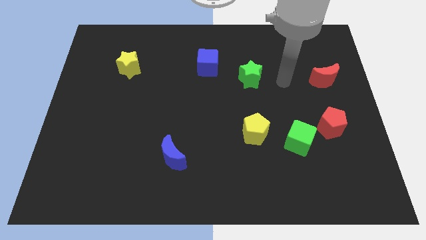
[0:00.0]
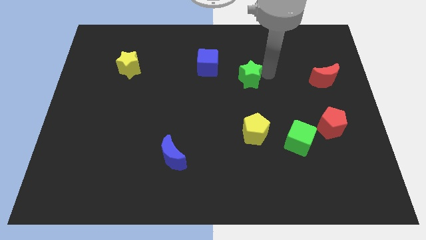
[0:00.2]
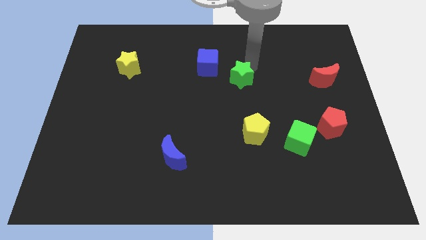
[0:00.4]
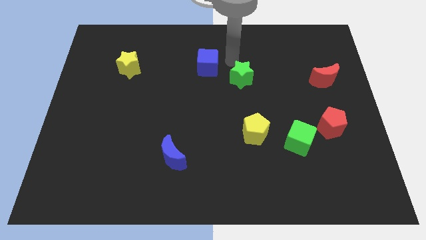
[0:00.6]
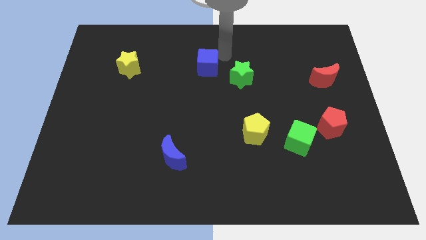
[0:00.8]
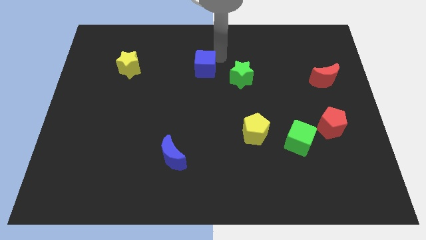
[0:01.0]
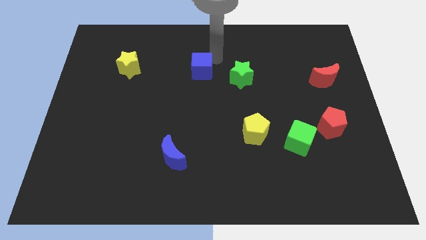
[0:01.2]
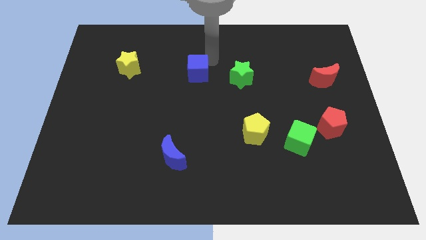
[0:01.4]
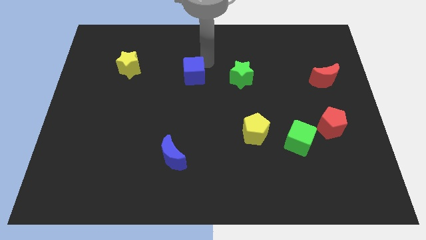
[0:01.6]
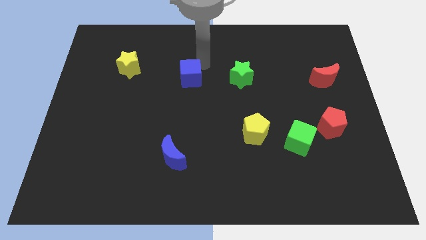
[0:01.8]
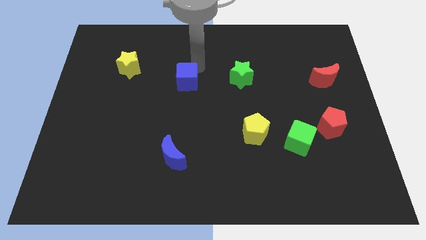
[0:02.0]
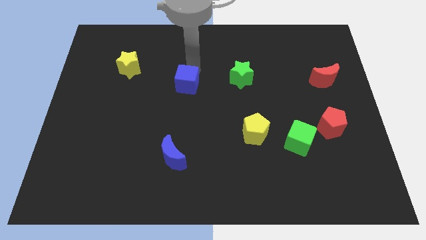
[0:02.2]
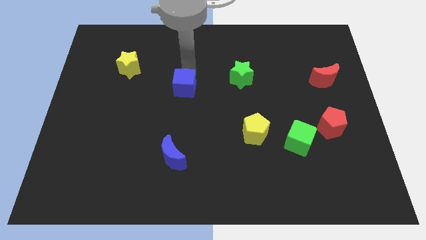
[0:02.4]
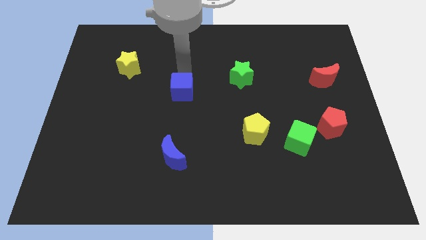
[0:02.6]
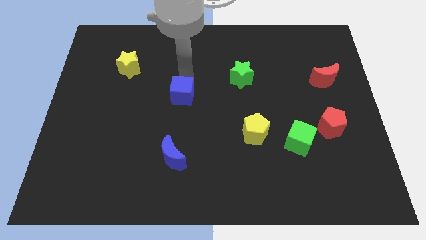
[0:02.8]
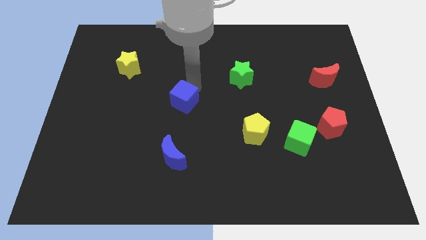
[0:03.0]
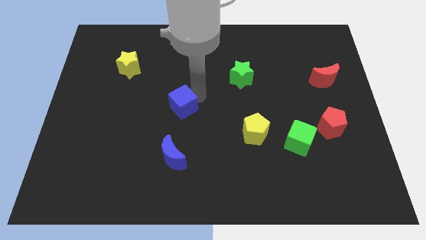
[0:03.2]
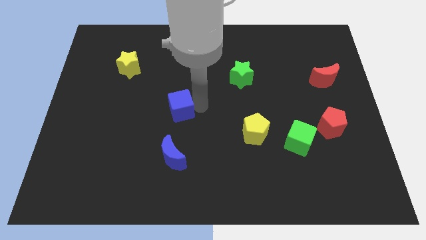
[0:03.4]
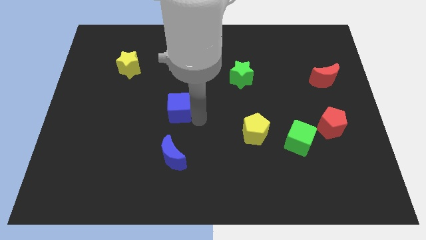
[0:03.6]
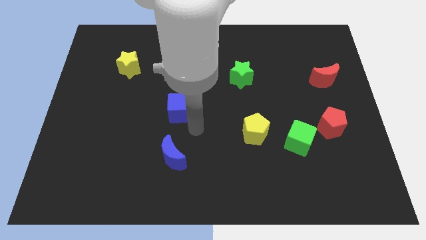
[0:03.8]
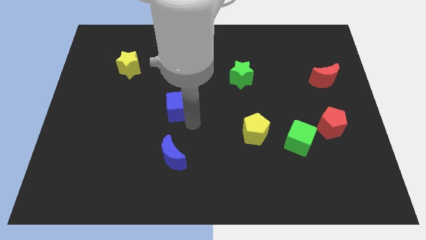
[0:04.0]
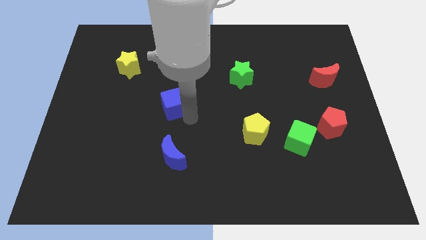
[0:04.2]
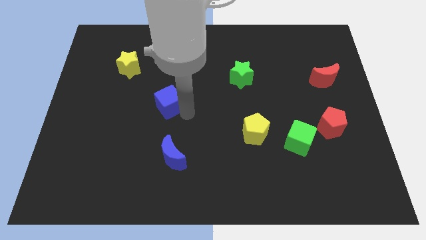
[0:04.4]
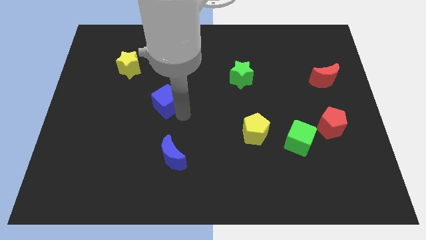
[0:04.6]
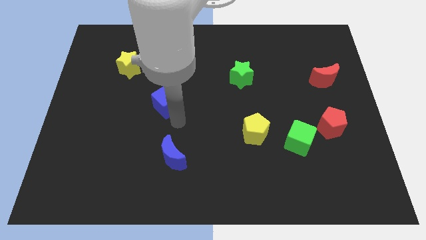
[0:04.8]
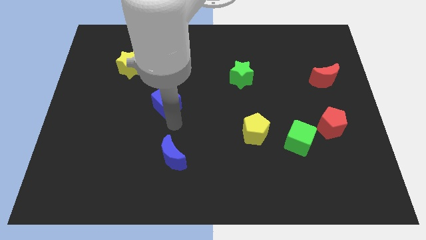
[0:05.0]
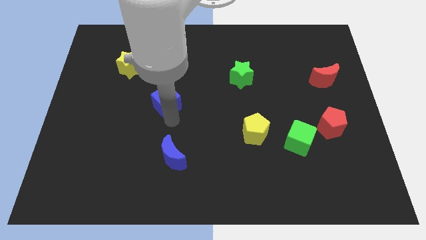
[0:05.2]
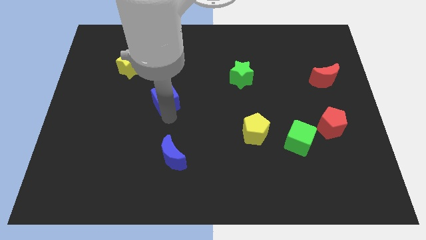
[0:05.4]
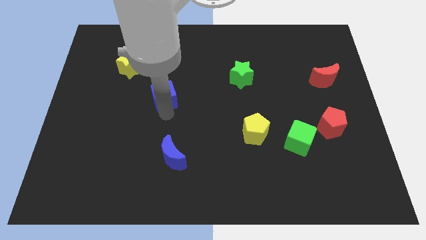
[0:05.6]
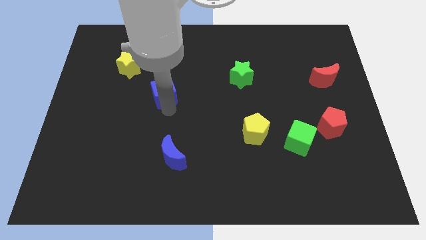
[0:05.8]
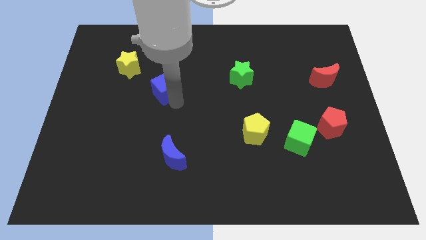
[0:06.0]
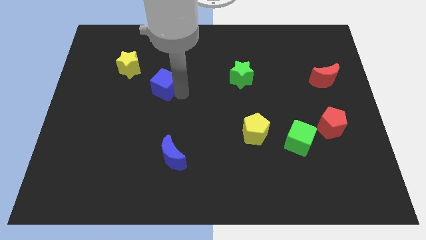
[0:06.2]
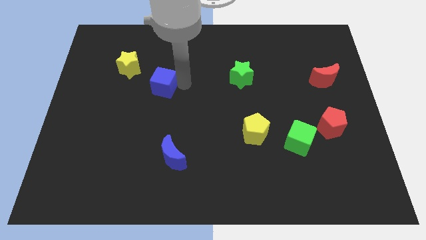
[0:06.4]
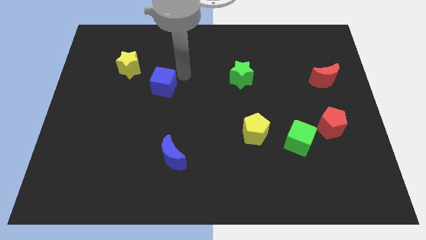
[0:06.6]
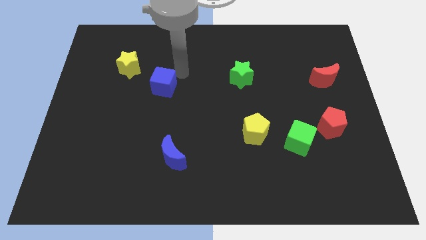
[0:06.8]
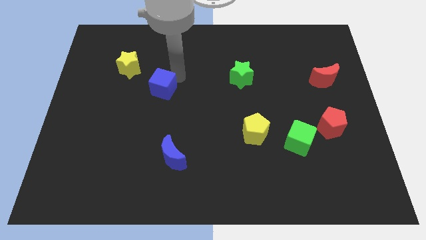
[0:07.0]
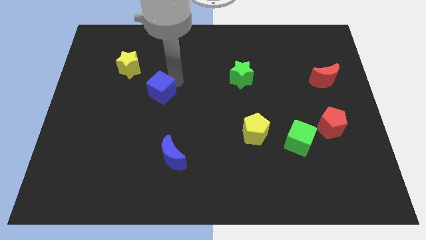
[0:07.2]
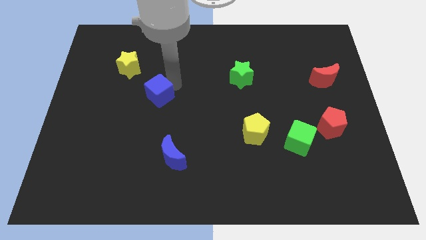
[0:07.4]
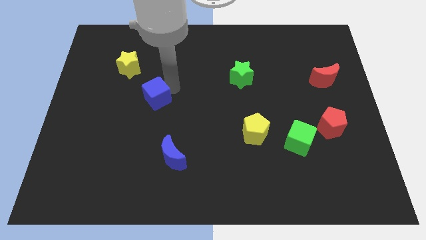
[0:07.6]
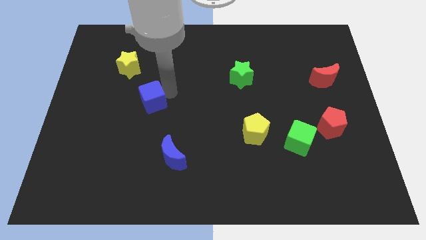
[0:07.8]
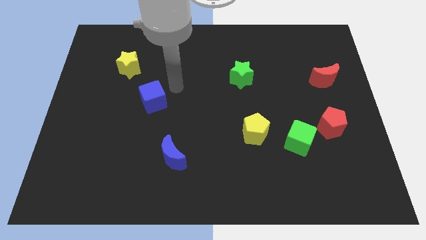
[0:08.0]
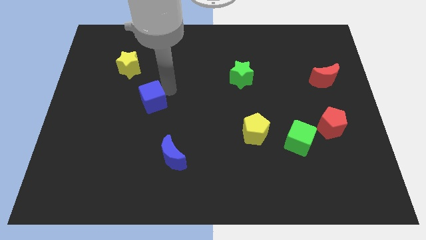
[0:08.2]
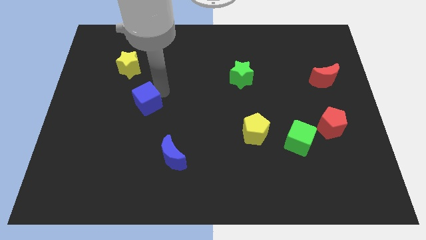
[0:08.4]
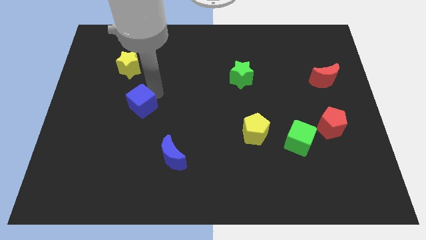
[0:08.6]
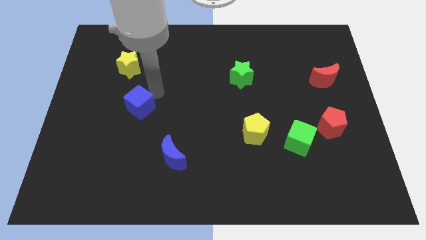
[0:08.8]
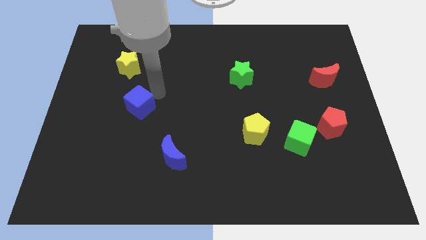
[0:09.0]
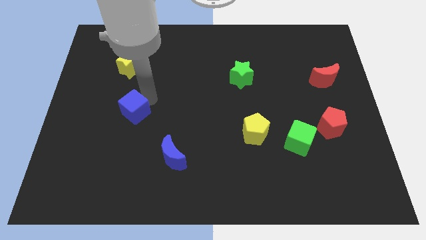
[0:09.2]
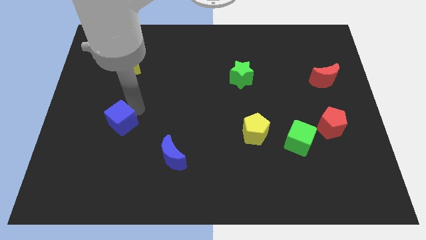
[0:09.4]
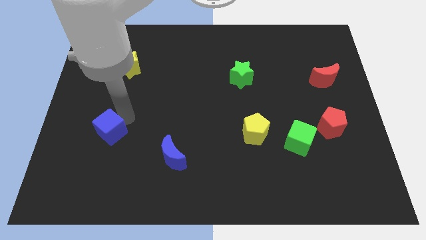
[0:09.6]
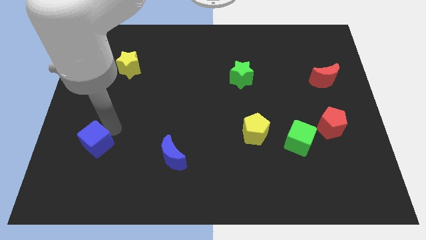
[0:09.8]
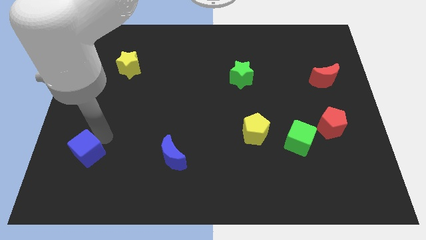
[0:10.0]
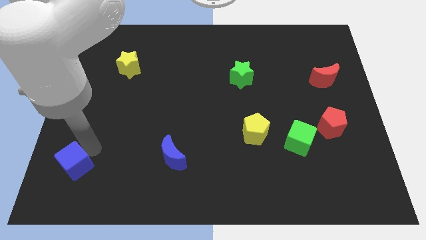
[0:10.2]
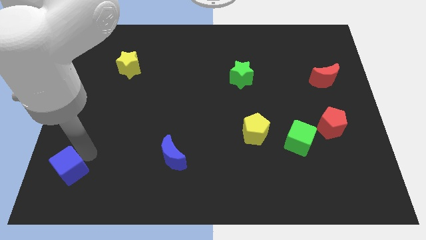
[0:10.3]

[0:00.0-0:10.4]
push the blue cube to the bottom left

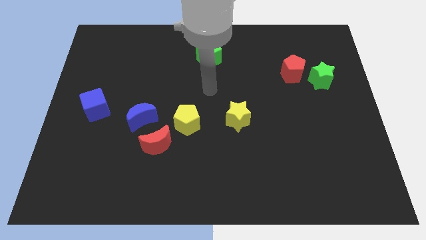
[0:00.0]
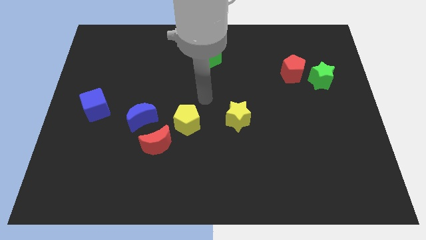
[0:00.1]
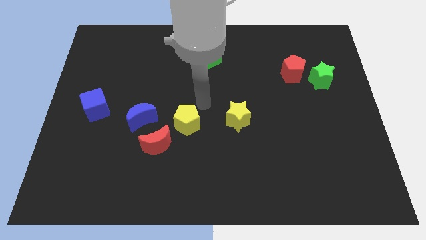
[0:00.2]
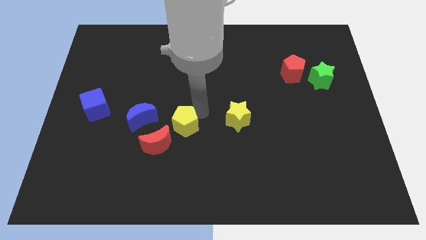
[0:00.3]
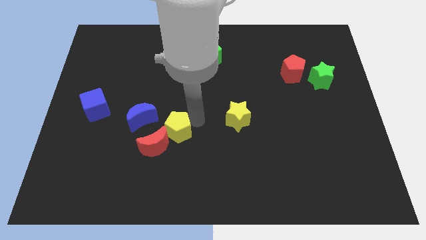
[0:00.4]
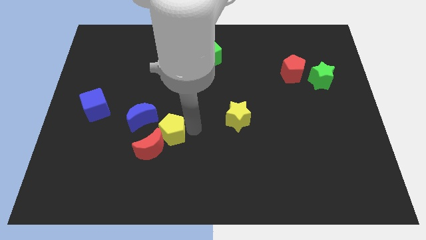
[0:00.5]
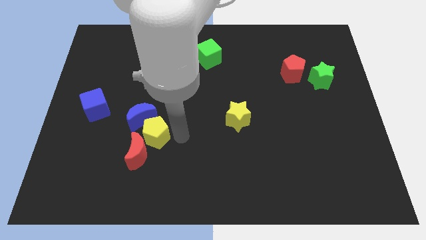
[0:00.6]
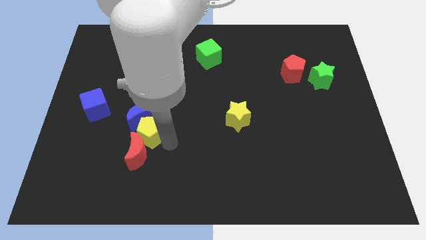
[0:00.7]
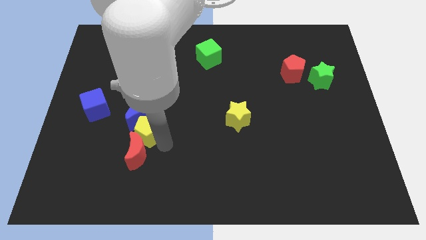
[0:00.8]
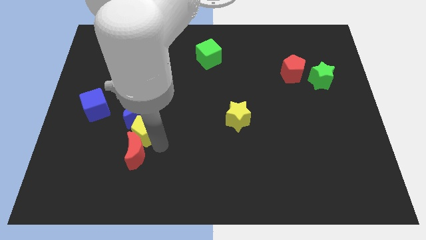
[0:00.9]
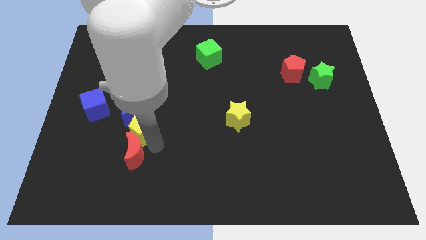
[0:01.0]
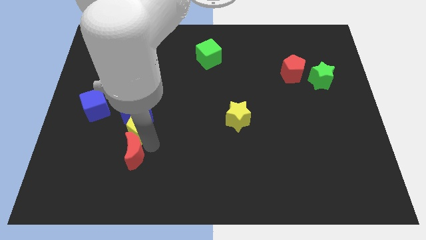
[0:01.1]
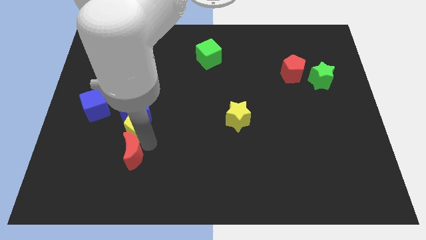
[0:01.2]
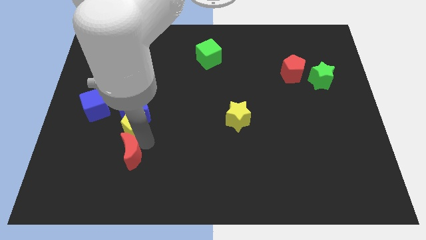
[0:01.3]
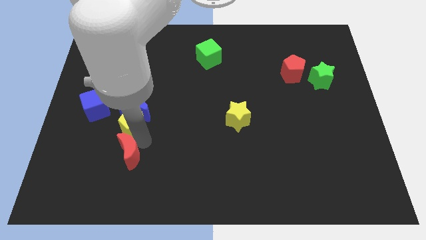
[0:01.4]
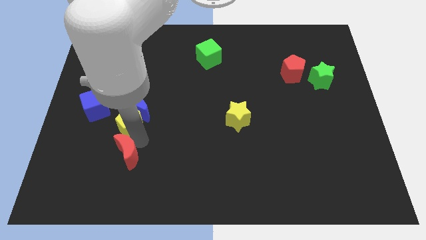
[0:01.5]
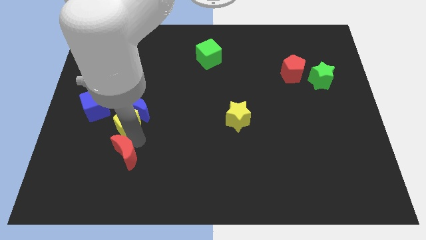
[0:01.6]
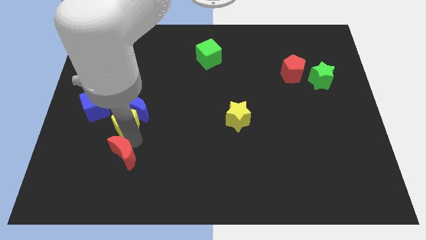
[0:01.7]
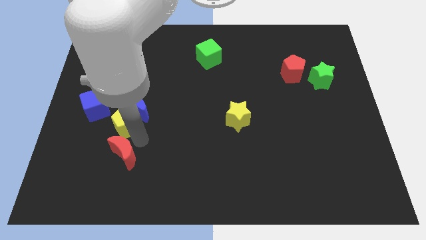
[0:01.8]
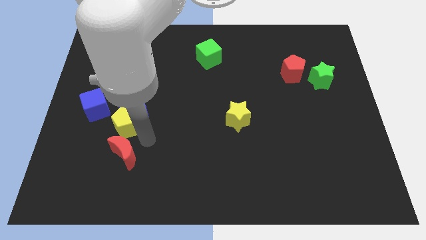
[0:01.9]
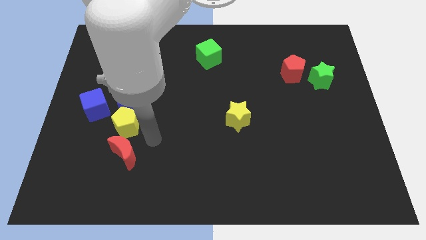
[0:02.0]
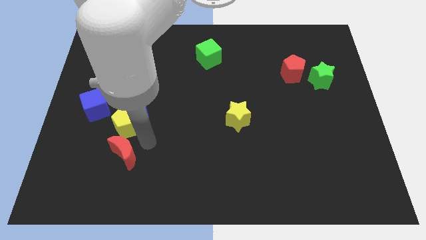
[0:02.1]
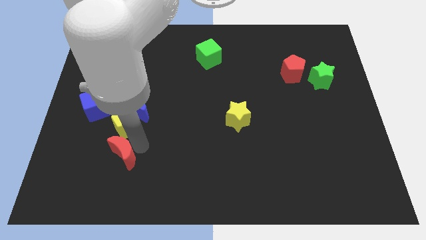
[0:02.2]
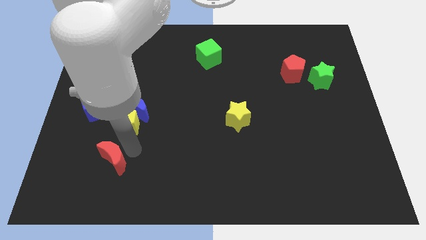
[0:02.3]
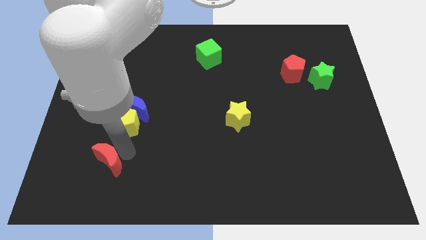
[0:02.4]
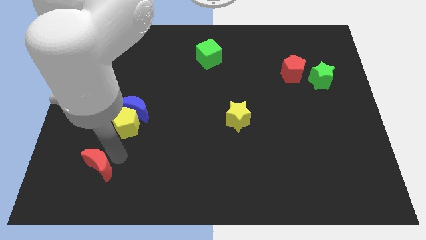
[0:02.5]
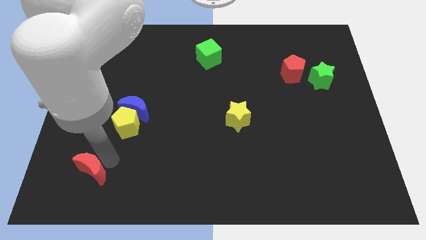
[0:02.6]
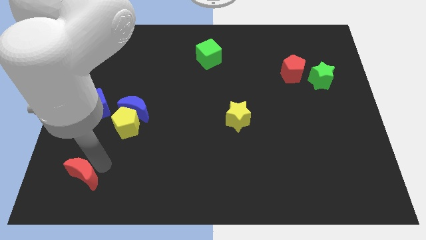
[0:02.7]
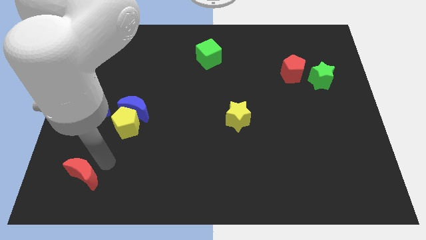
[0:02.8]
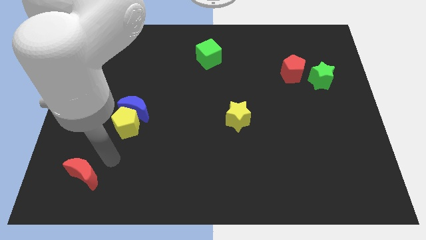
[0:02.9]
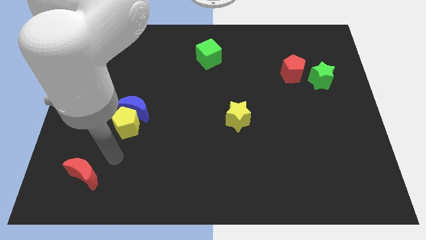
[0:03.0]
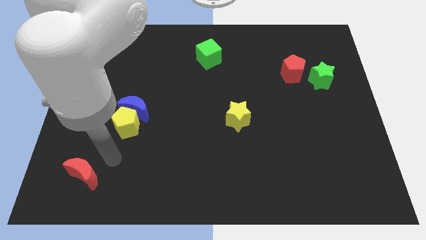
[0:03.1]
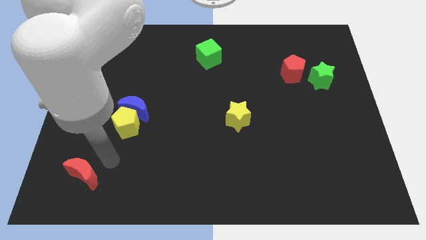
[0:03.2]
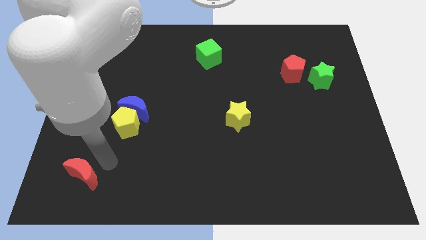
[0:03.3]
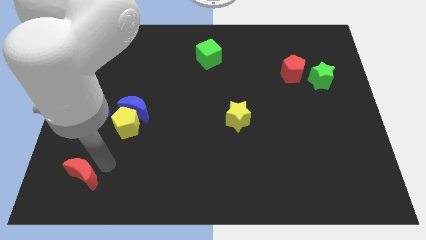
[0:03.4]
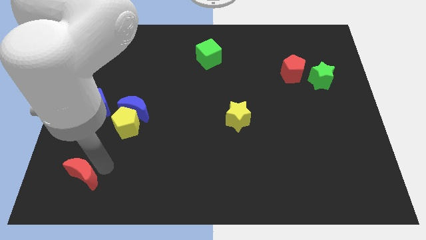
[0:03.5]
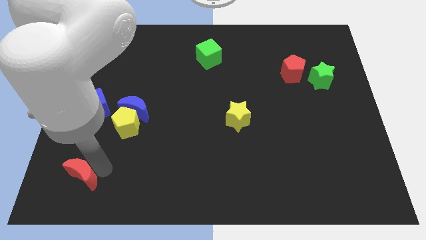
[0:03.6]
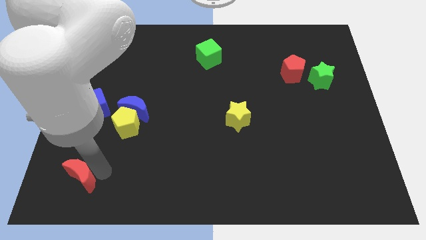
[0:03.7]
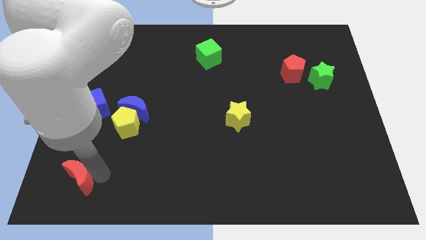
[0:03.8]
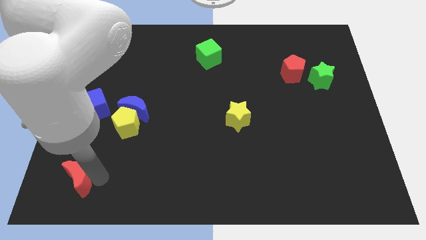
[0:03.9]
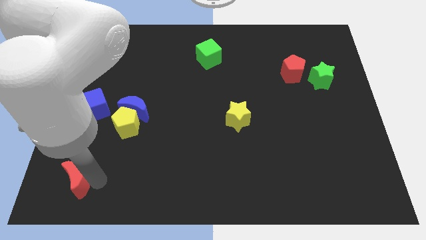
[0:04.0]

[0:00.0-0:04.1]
push the red moon to the bottom left of the board
